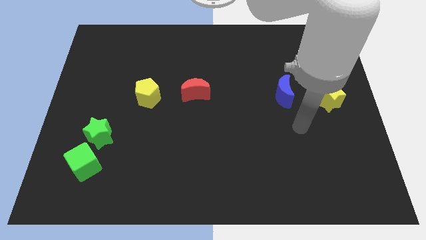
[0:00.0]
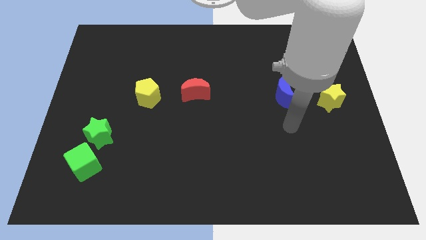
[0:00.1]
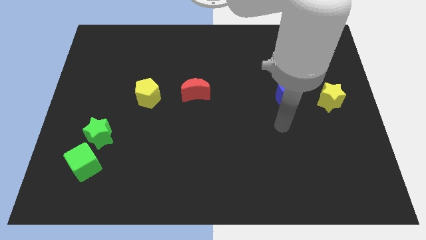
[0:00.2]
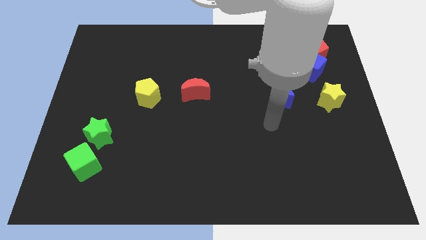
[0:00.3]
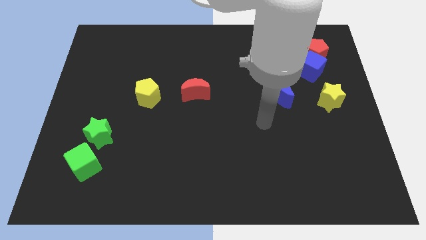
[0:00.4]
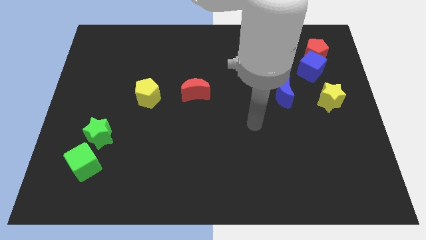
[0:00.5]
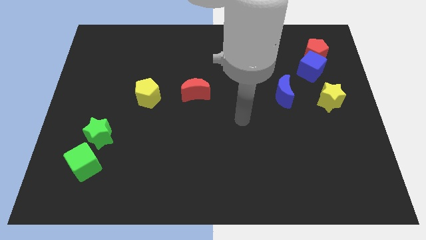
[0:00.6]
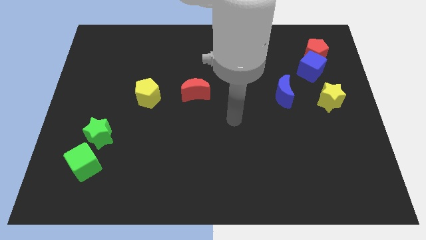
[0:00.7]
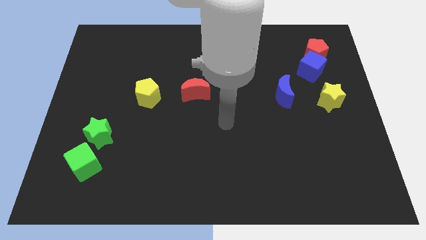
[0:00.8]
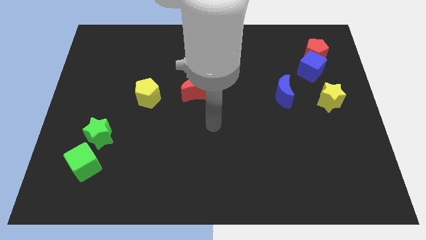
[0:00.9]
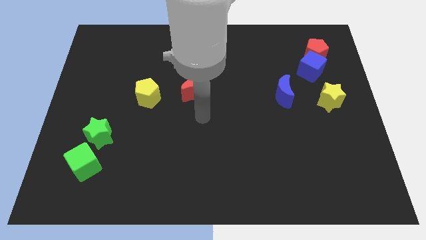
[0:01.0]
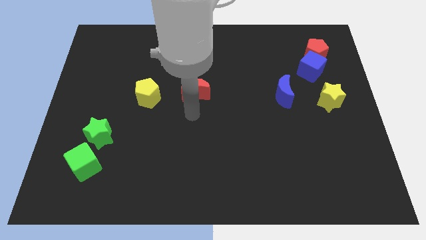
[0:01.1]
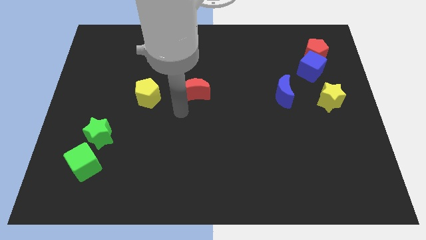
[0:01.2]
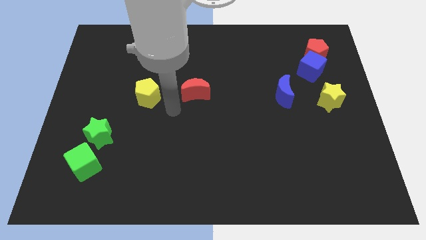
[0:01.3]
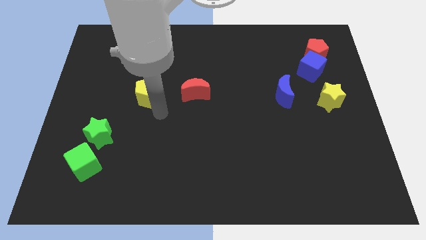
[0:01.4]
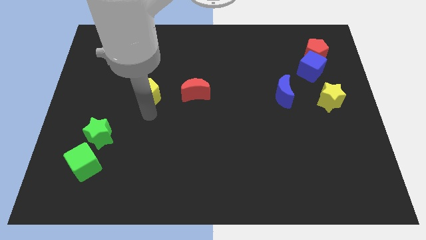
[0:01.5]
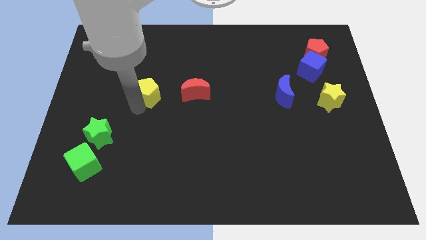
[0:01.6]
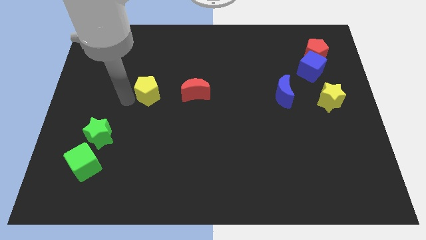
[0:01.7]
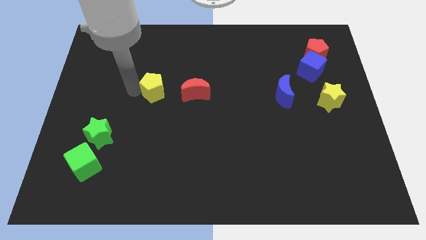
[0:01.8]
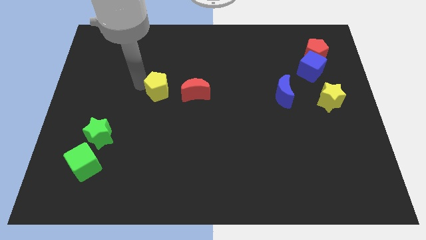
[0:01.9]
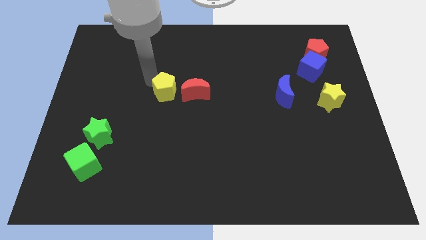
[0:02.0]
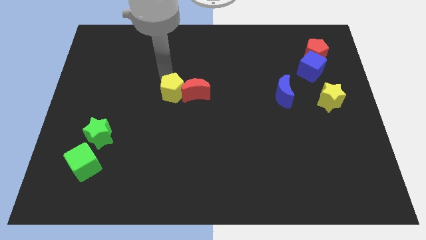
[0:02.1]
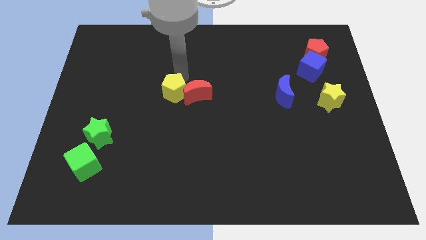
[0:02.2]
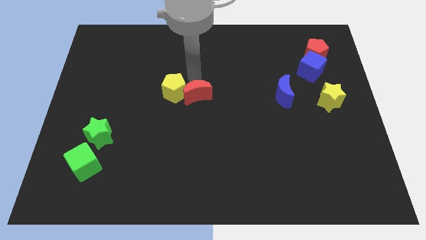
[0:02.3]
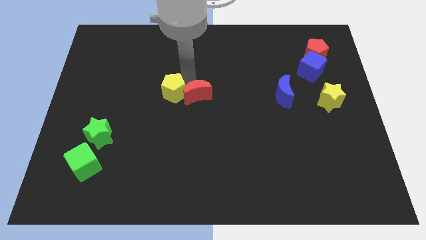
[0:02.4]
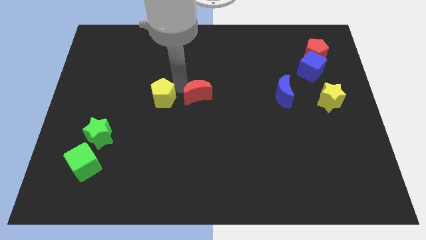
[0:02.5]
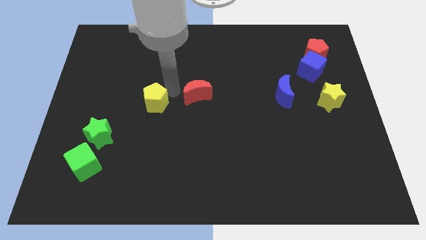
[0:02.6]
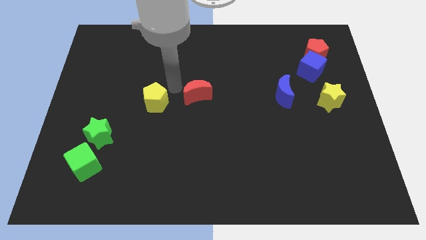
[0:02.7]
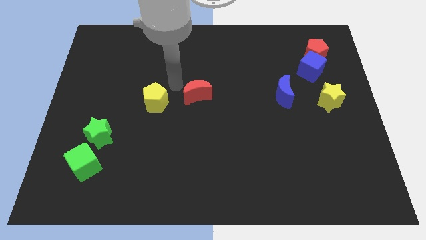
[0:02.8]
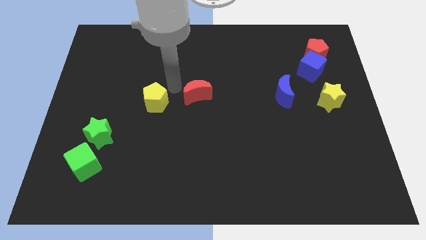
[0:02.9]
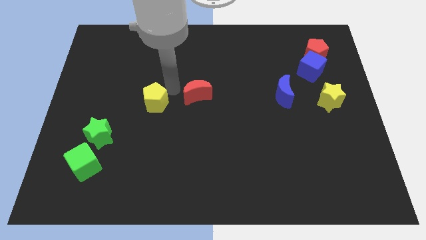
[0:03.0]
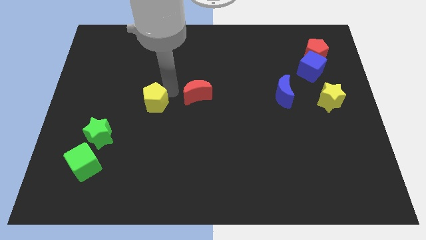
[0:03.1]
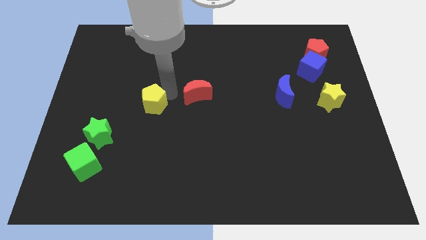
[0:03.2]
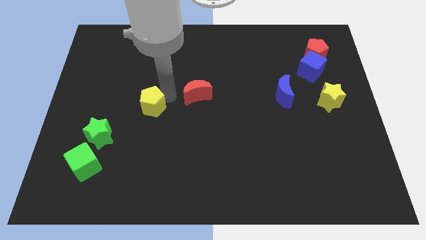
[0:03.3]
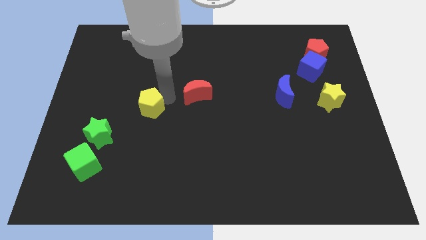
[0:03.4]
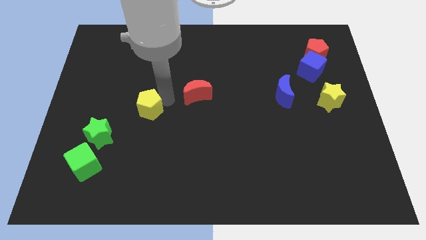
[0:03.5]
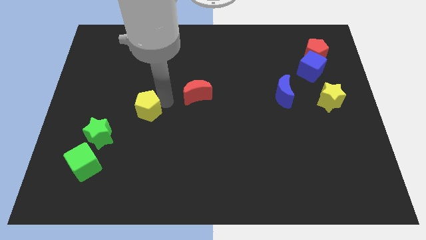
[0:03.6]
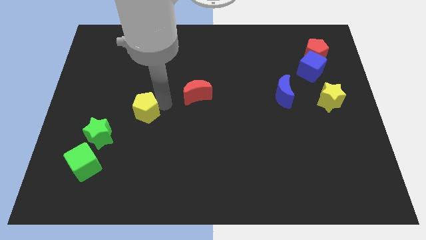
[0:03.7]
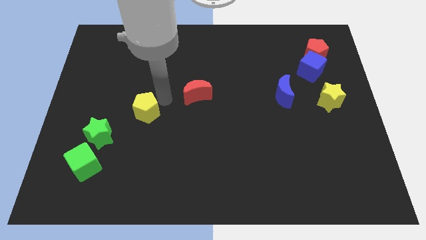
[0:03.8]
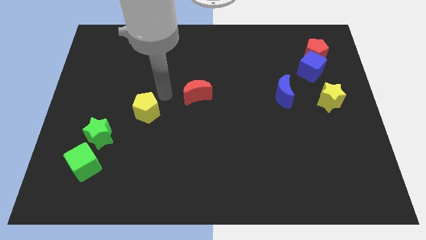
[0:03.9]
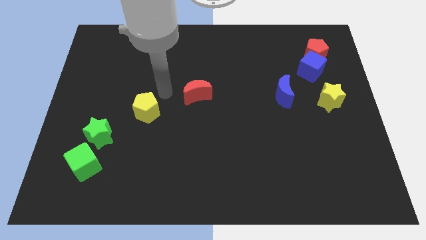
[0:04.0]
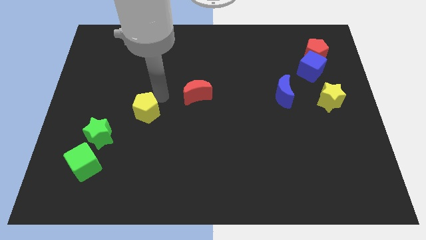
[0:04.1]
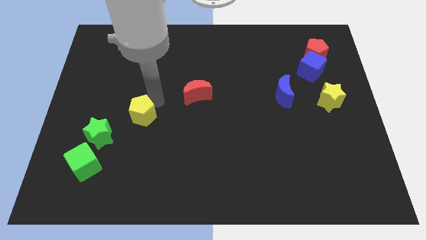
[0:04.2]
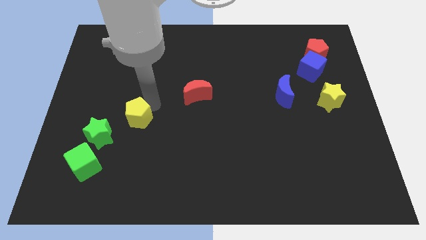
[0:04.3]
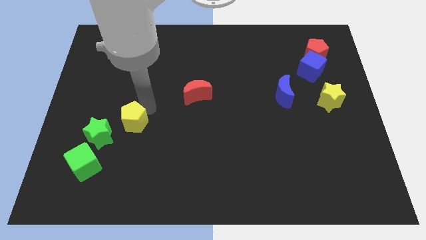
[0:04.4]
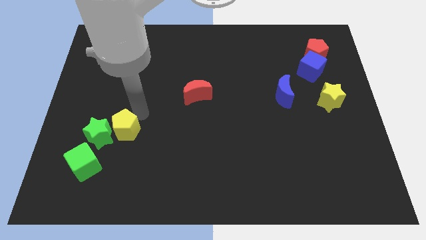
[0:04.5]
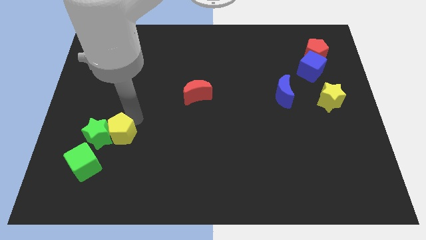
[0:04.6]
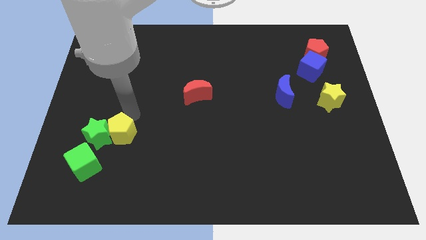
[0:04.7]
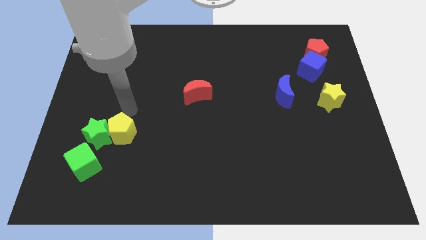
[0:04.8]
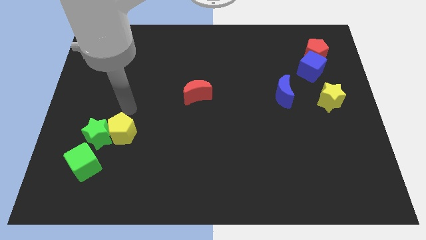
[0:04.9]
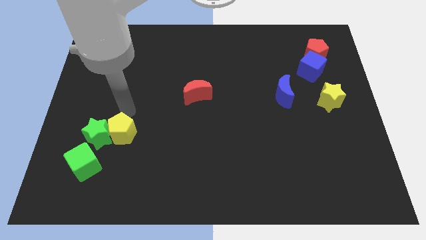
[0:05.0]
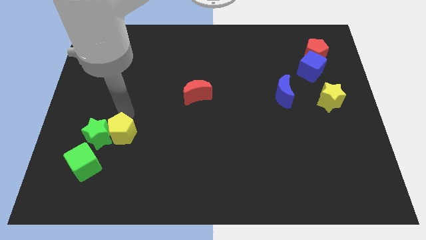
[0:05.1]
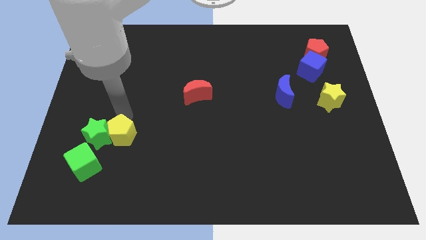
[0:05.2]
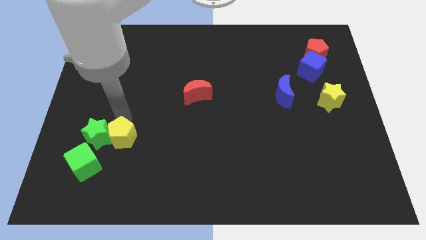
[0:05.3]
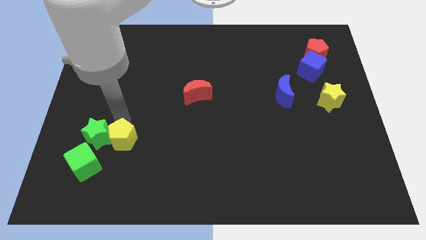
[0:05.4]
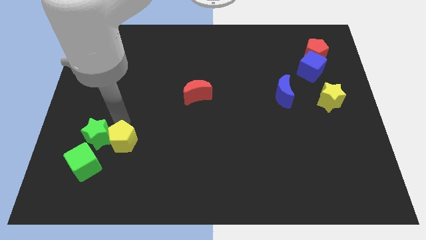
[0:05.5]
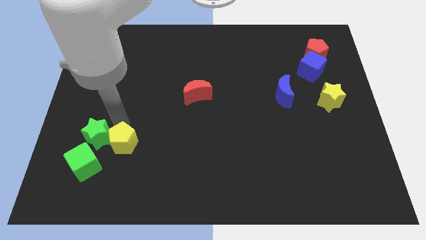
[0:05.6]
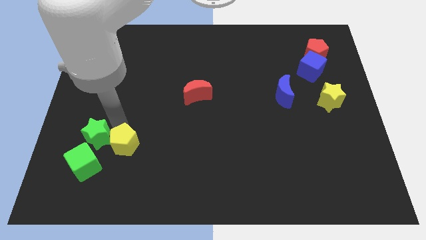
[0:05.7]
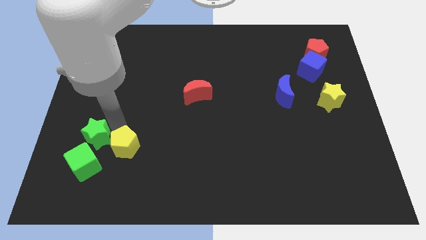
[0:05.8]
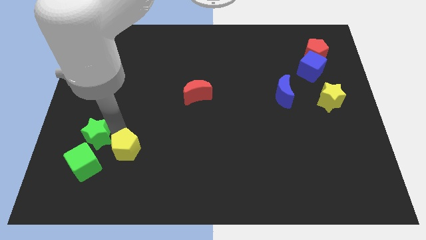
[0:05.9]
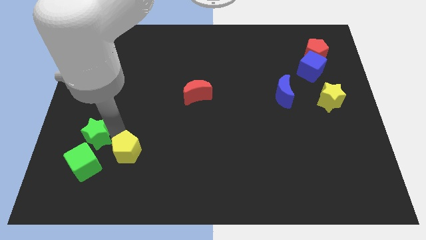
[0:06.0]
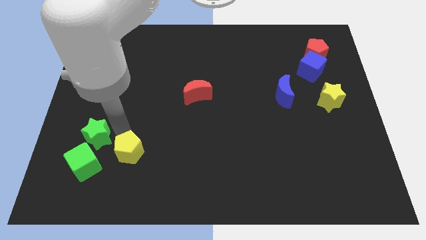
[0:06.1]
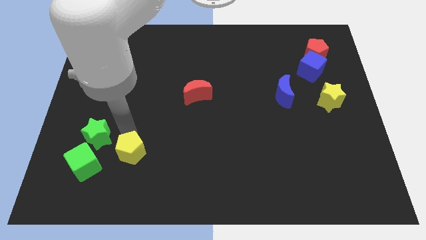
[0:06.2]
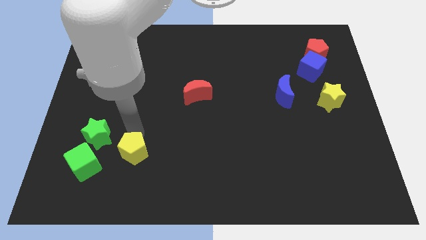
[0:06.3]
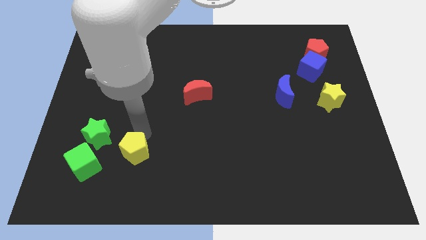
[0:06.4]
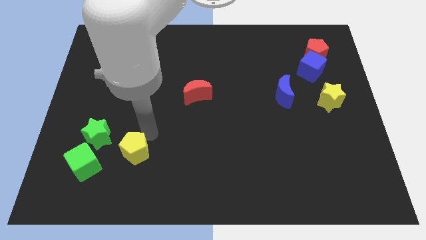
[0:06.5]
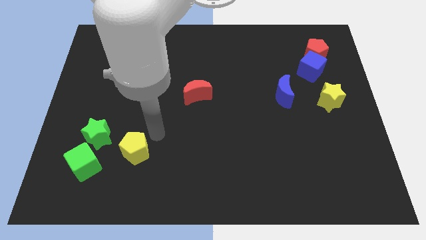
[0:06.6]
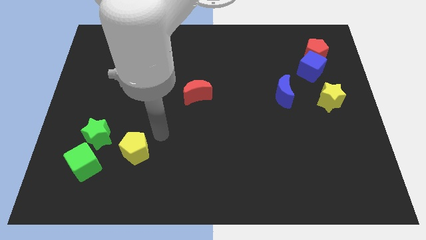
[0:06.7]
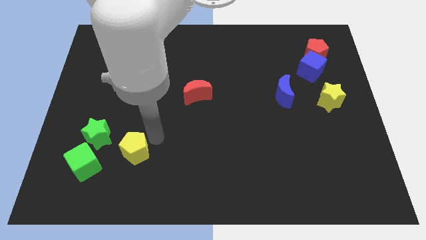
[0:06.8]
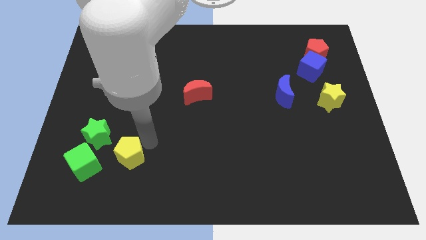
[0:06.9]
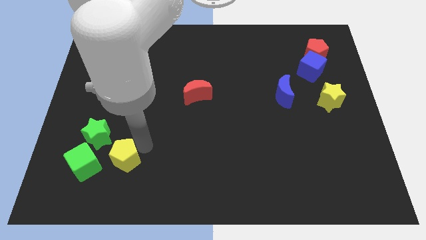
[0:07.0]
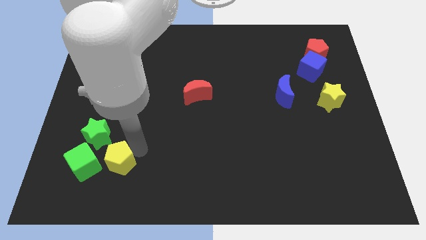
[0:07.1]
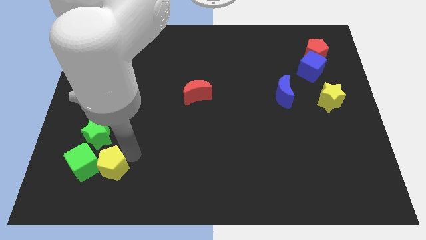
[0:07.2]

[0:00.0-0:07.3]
push the yellow pentagon to the bottom of the green star

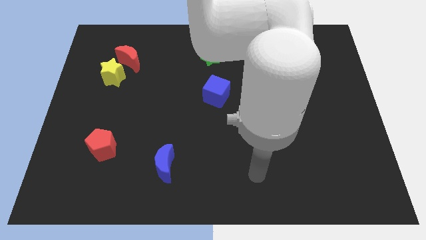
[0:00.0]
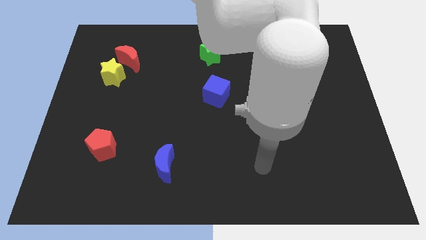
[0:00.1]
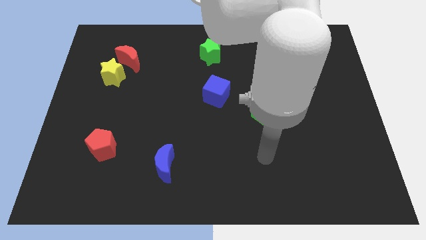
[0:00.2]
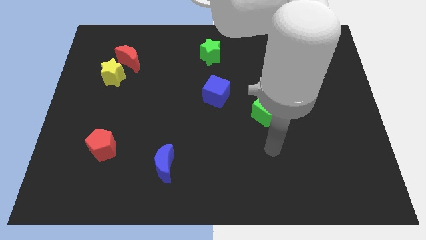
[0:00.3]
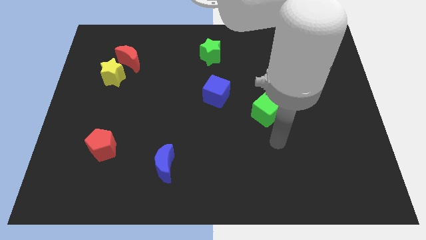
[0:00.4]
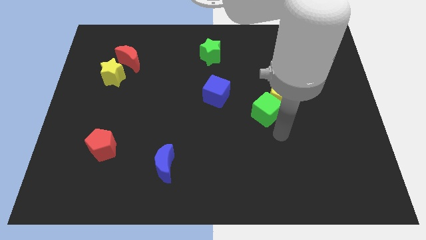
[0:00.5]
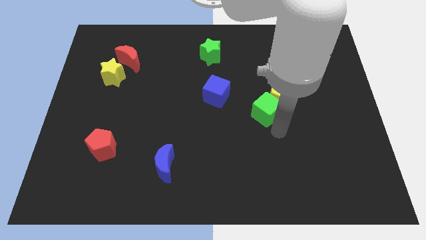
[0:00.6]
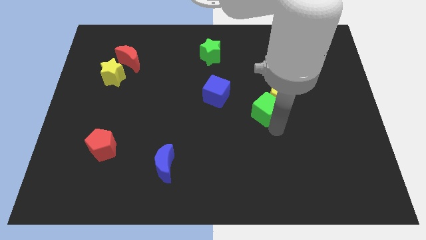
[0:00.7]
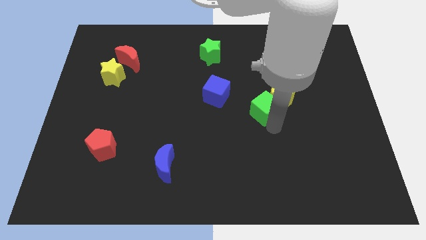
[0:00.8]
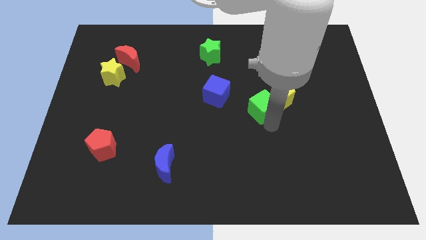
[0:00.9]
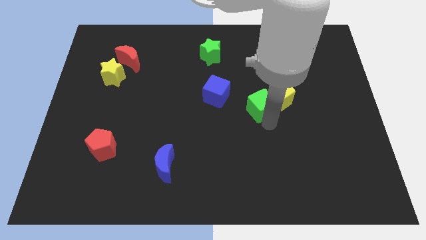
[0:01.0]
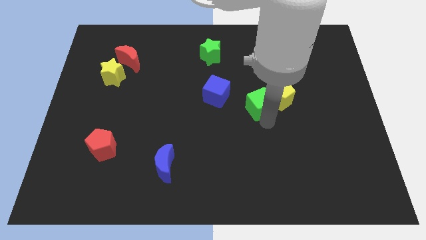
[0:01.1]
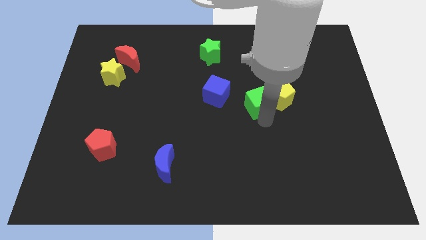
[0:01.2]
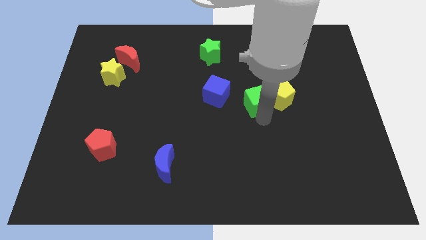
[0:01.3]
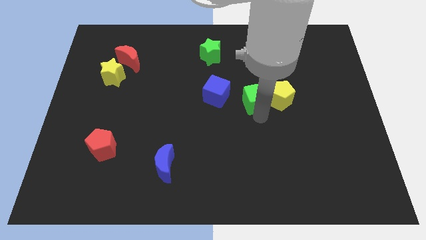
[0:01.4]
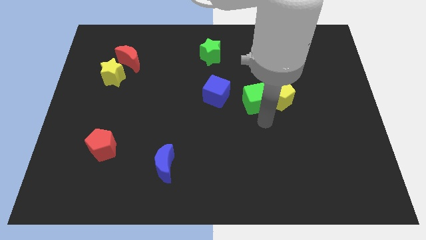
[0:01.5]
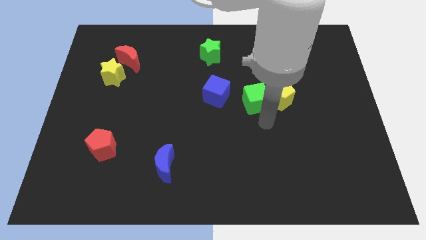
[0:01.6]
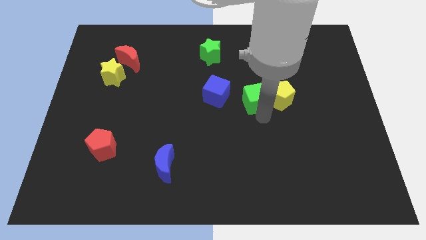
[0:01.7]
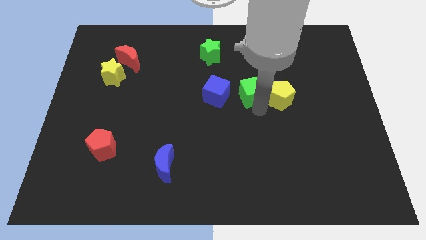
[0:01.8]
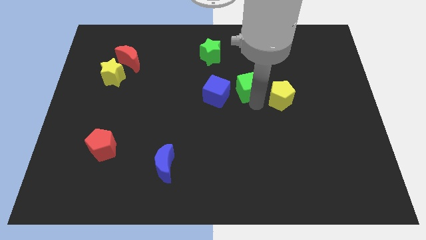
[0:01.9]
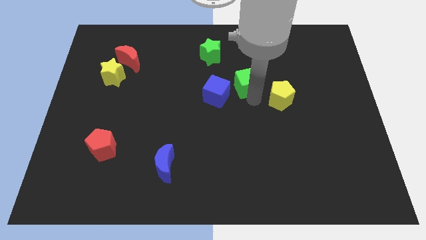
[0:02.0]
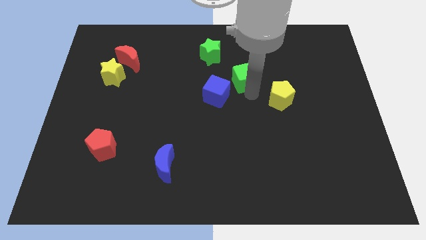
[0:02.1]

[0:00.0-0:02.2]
slide the green cube to the bottom right side of the green star
